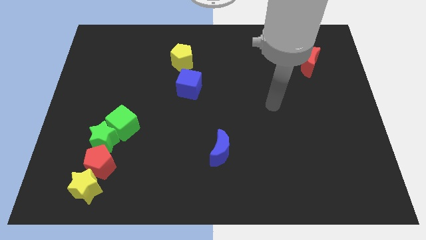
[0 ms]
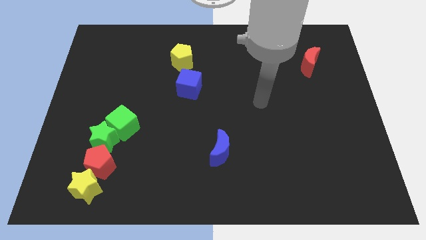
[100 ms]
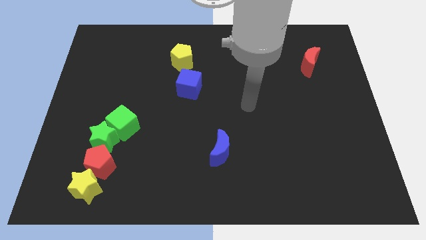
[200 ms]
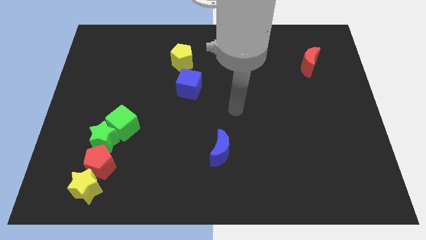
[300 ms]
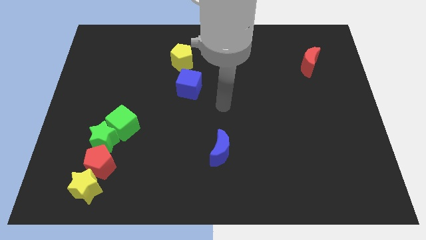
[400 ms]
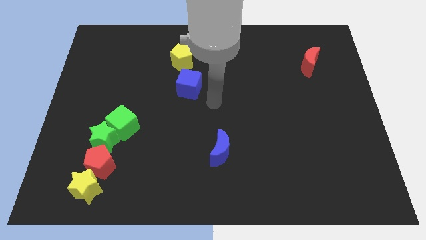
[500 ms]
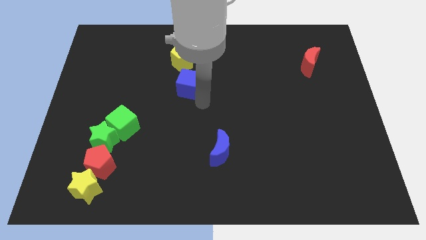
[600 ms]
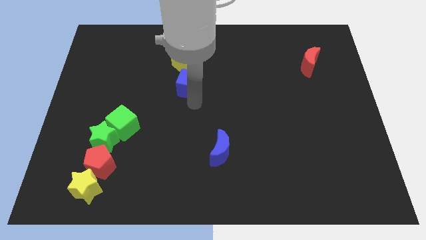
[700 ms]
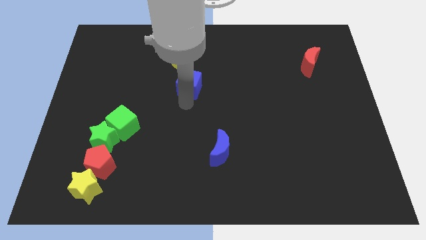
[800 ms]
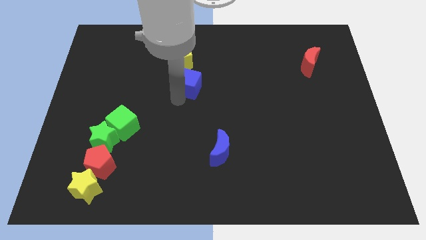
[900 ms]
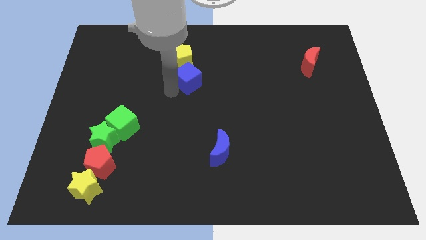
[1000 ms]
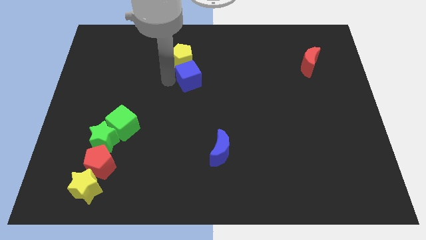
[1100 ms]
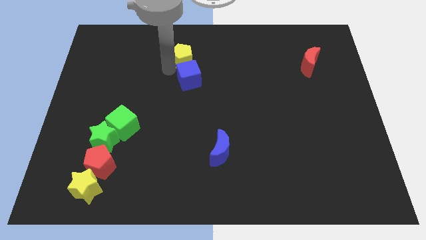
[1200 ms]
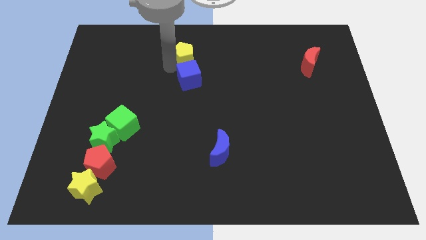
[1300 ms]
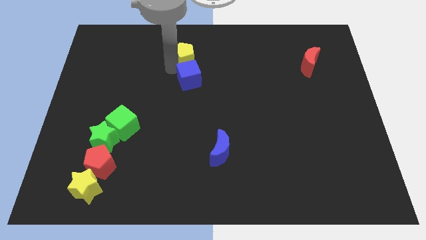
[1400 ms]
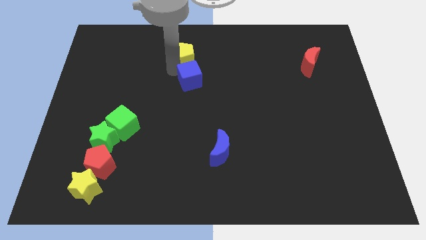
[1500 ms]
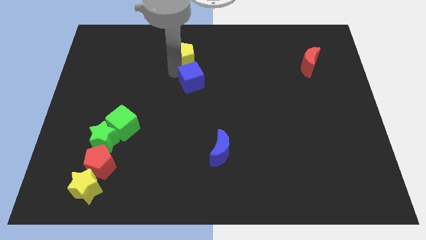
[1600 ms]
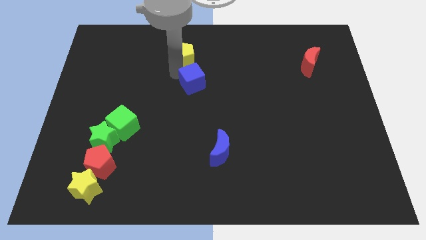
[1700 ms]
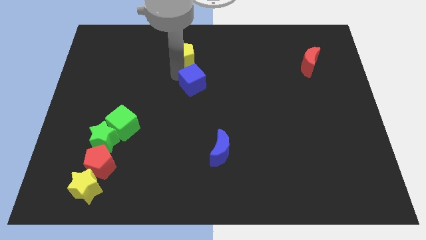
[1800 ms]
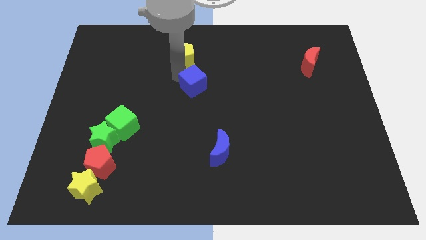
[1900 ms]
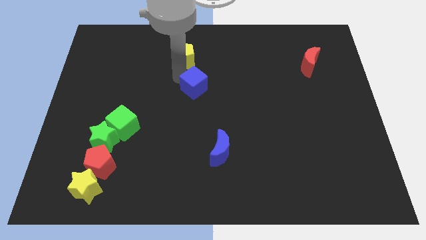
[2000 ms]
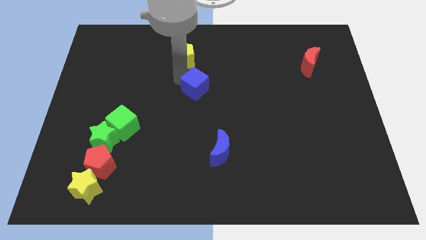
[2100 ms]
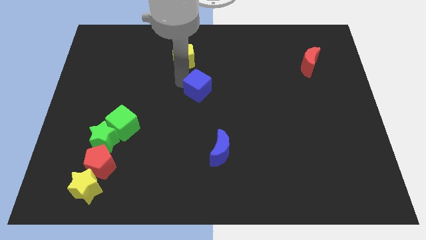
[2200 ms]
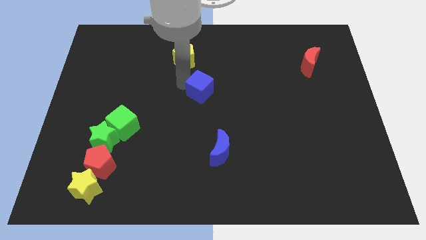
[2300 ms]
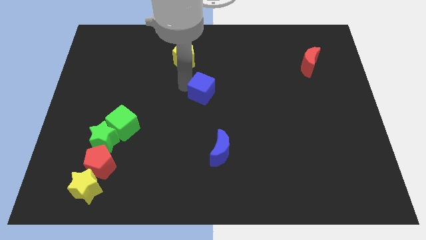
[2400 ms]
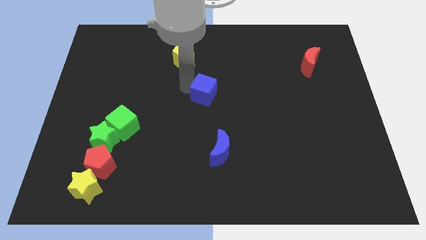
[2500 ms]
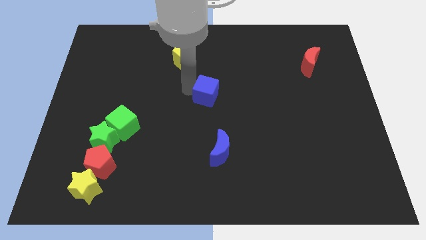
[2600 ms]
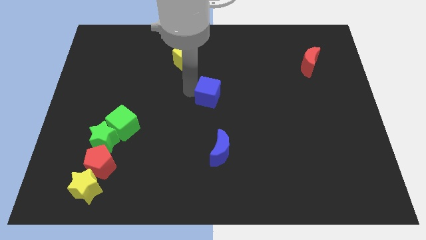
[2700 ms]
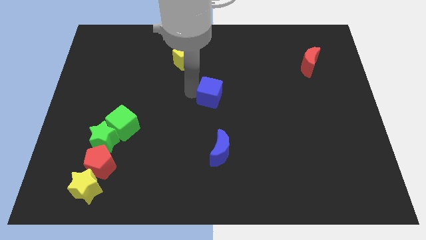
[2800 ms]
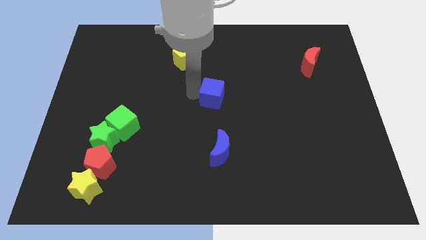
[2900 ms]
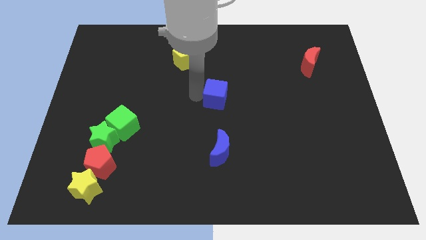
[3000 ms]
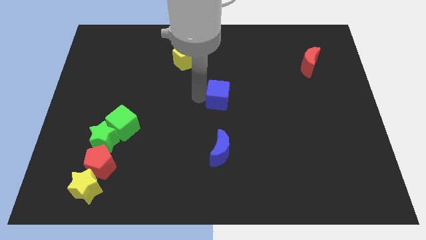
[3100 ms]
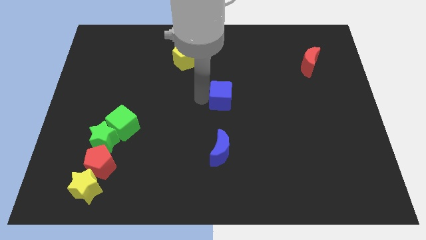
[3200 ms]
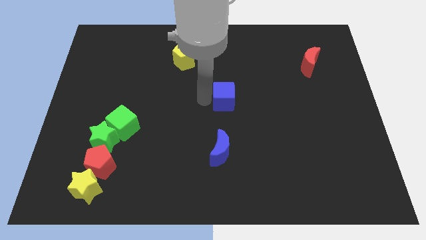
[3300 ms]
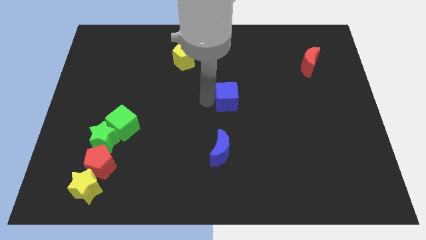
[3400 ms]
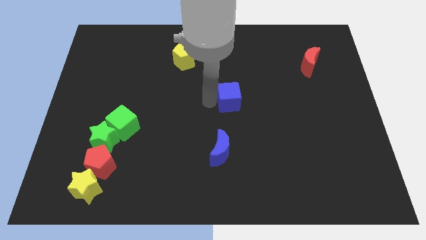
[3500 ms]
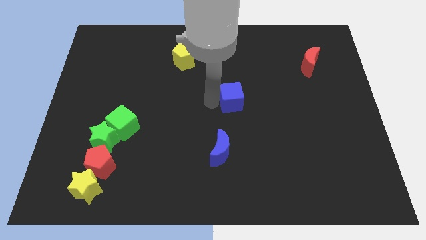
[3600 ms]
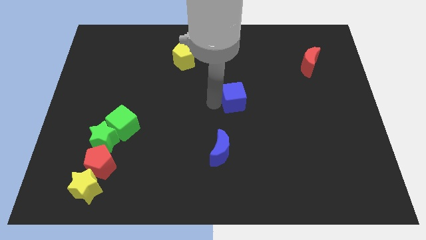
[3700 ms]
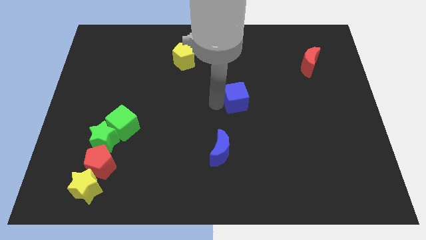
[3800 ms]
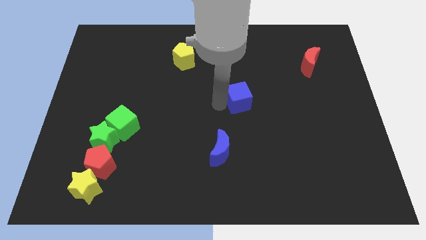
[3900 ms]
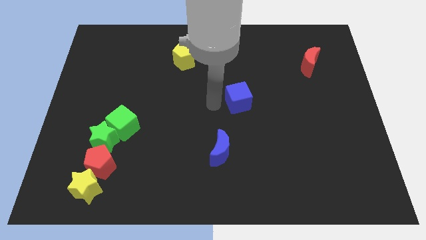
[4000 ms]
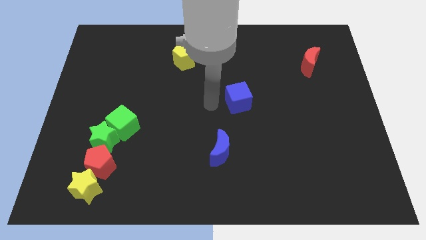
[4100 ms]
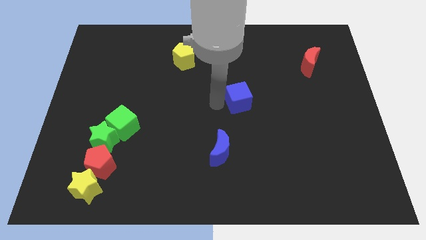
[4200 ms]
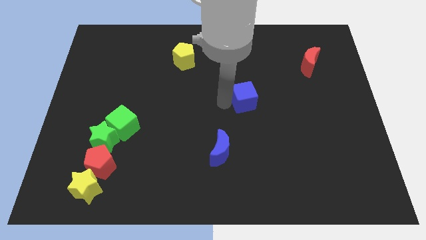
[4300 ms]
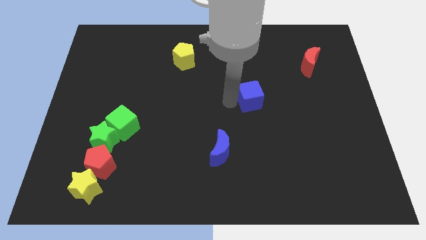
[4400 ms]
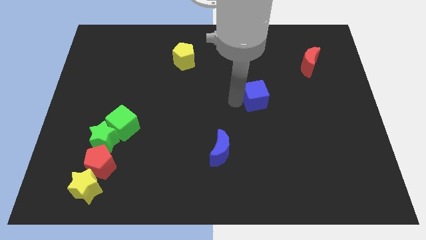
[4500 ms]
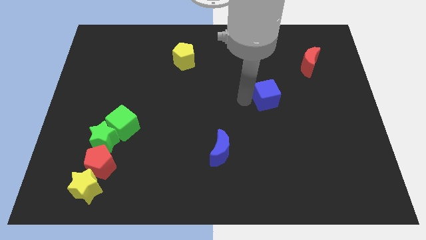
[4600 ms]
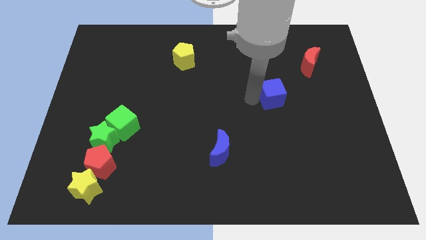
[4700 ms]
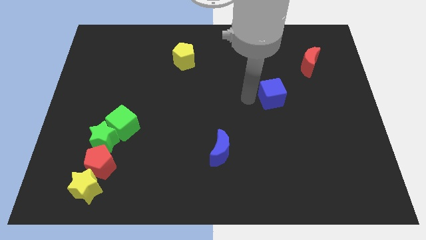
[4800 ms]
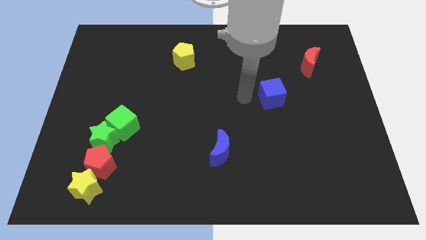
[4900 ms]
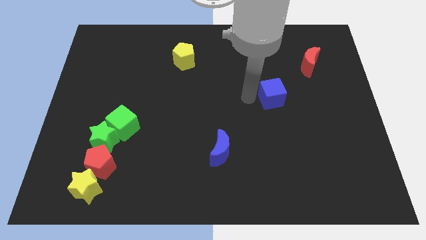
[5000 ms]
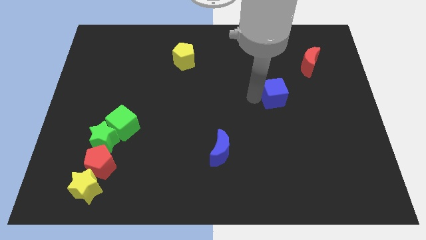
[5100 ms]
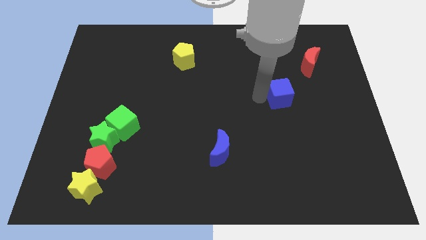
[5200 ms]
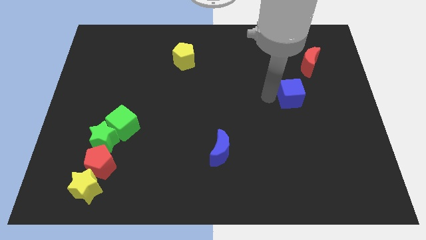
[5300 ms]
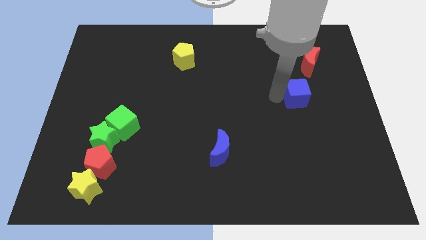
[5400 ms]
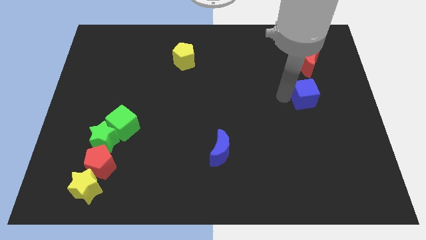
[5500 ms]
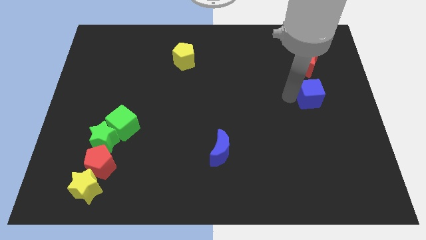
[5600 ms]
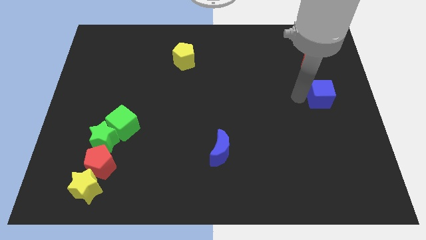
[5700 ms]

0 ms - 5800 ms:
put the blue cube to the right side of the board

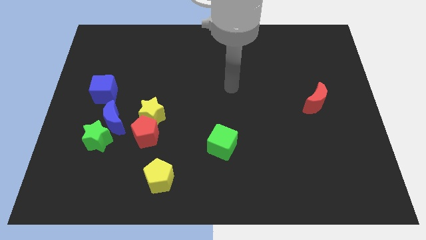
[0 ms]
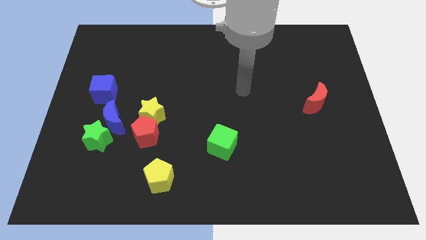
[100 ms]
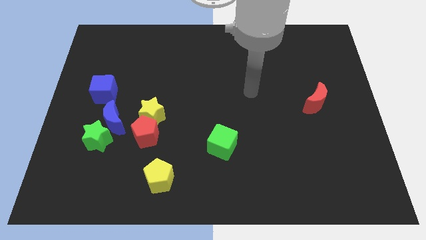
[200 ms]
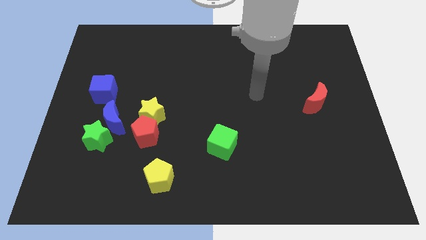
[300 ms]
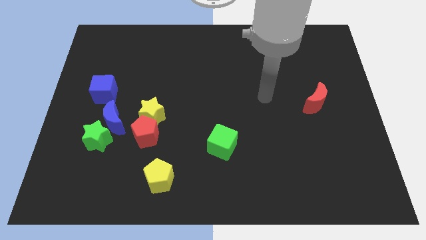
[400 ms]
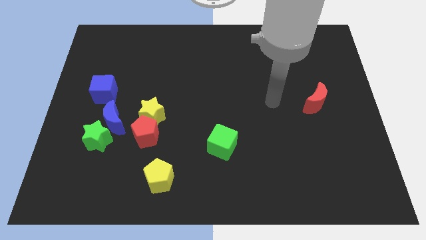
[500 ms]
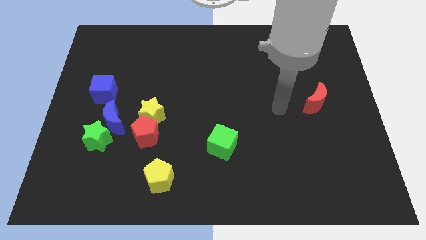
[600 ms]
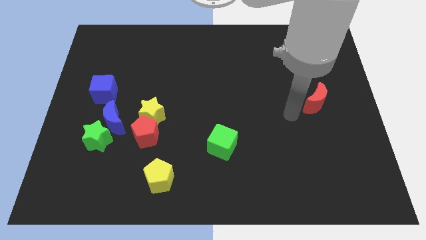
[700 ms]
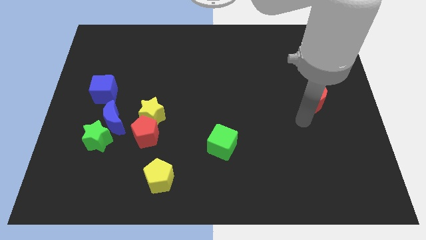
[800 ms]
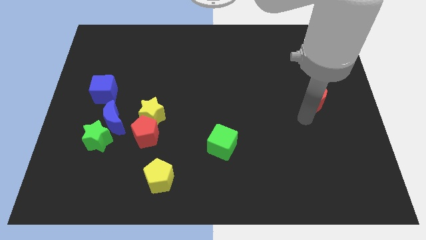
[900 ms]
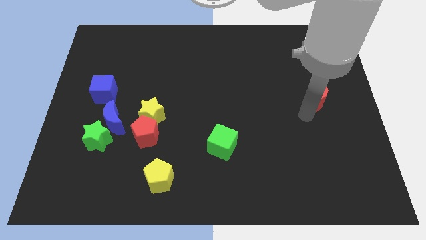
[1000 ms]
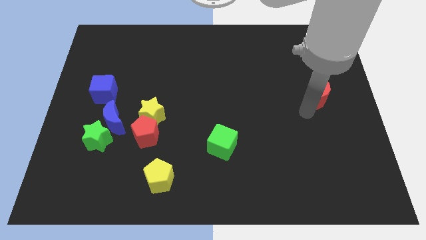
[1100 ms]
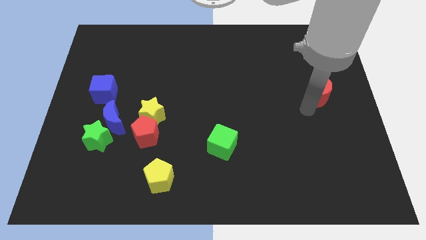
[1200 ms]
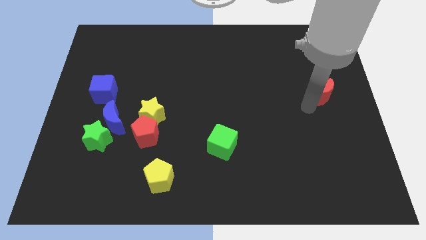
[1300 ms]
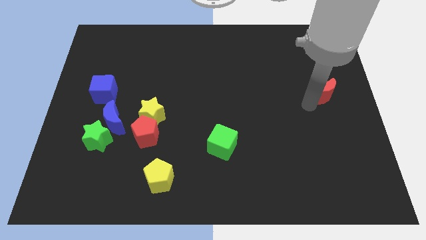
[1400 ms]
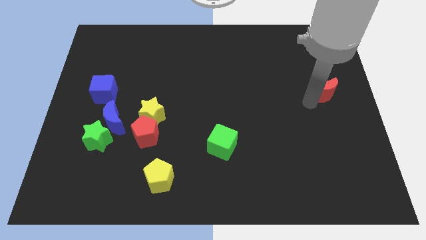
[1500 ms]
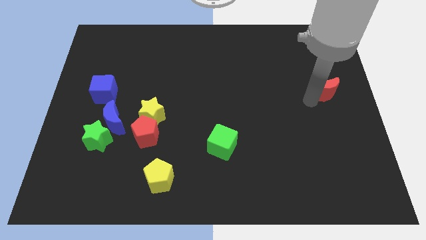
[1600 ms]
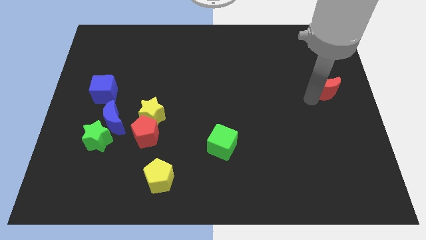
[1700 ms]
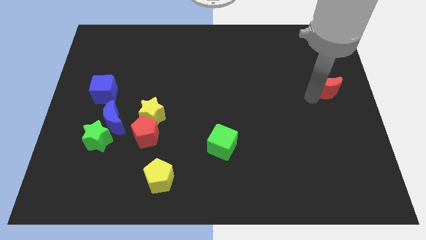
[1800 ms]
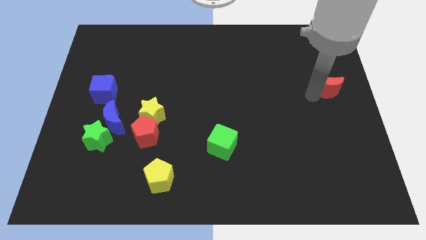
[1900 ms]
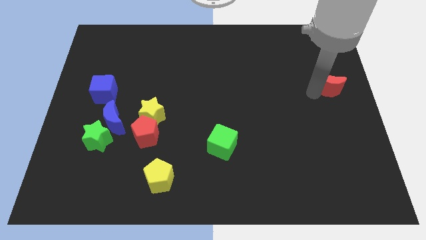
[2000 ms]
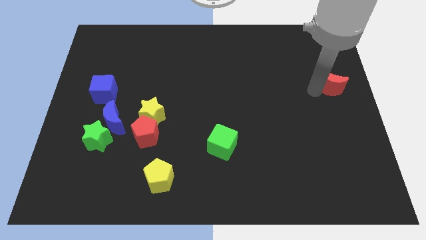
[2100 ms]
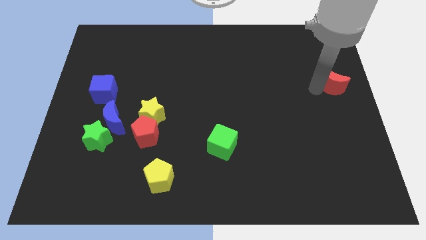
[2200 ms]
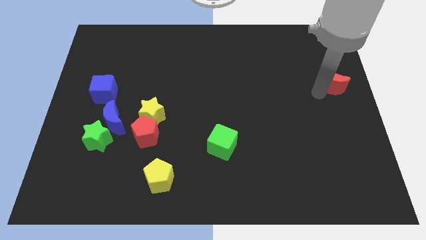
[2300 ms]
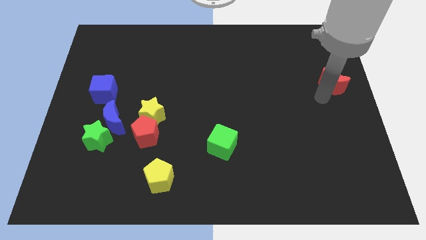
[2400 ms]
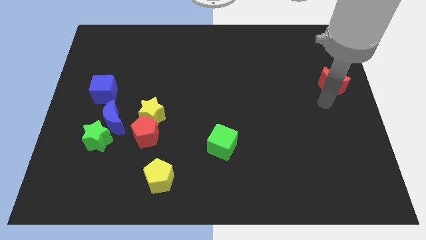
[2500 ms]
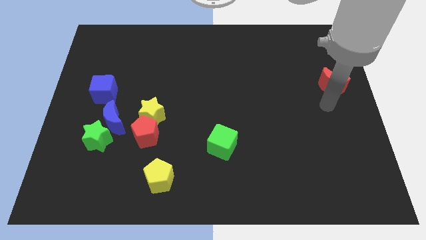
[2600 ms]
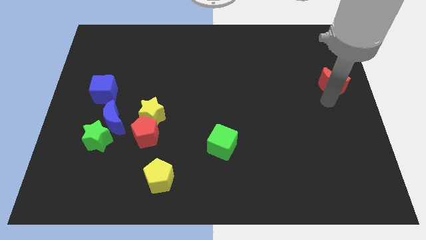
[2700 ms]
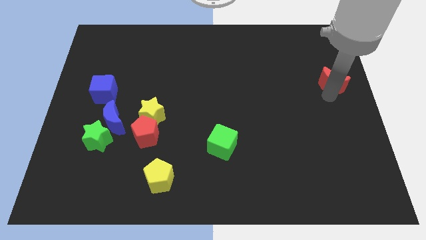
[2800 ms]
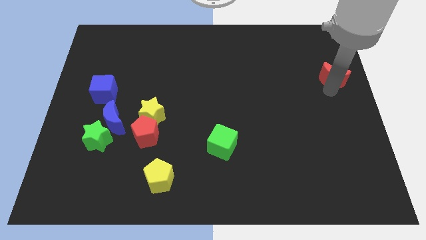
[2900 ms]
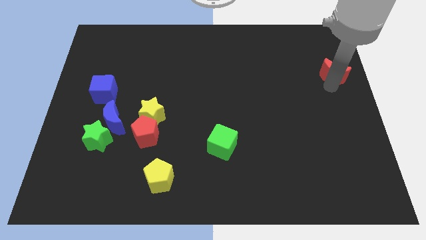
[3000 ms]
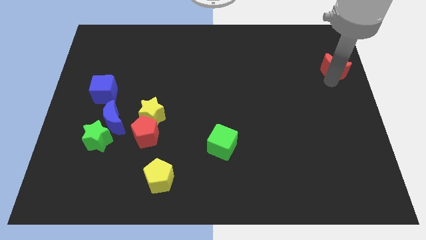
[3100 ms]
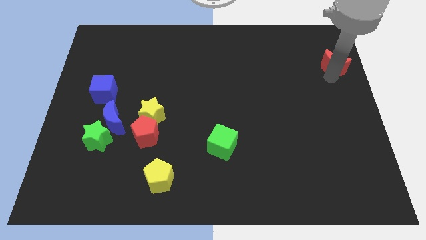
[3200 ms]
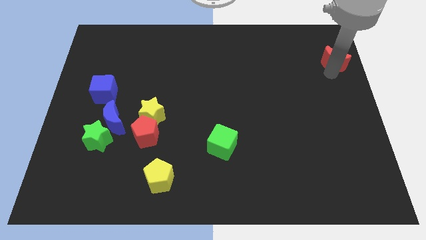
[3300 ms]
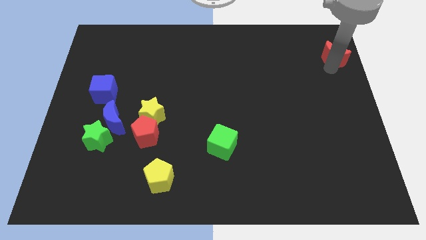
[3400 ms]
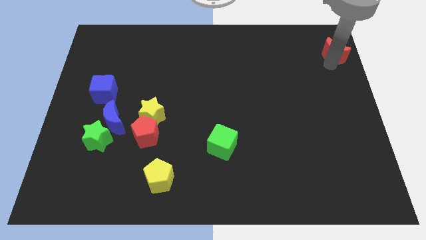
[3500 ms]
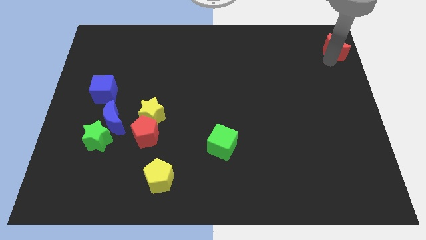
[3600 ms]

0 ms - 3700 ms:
move the red moon to the upper right corner
